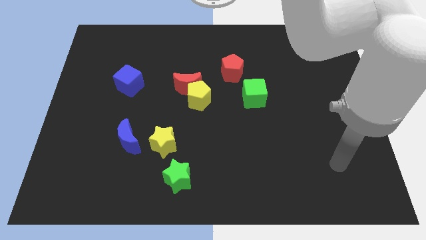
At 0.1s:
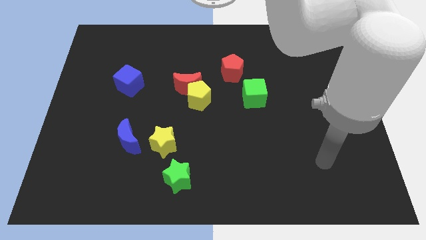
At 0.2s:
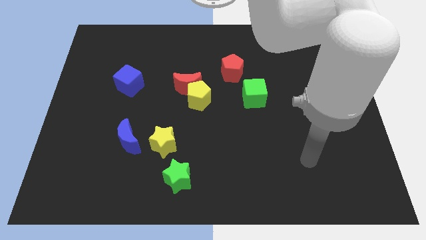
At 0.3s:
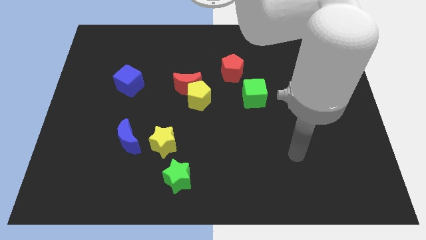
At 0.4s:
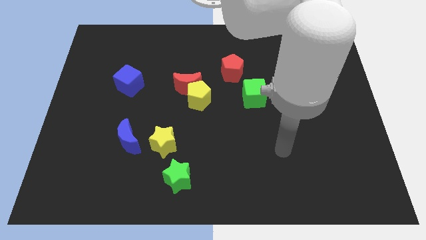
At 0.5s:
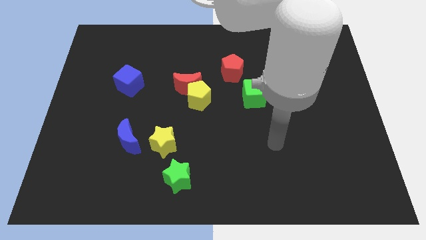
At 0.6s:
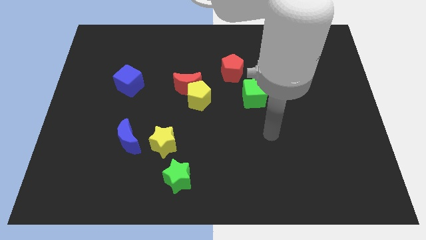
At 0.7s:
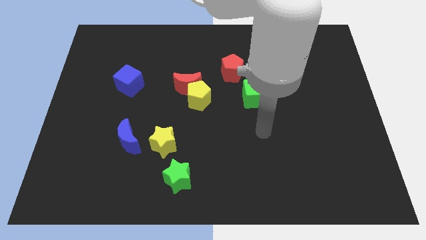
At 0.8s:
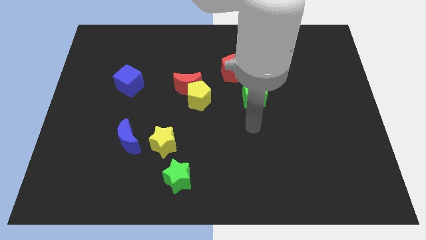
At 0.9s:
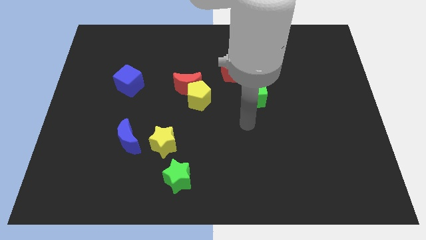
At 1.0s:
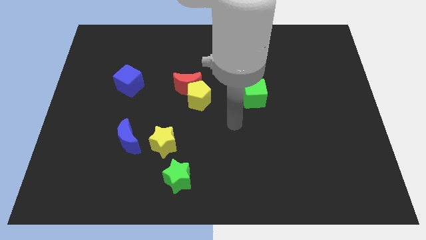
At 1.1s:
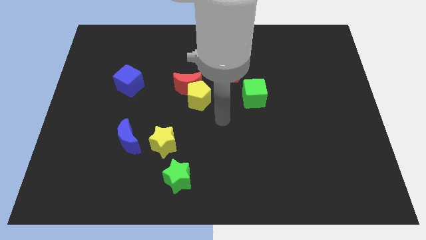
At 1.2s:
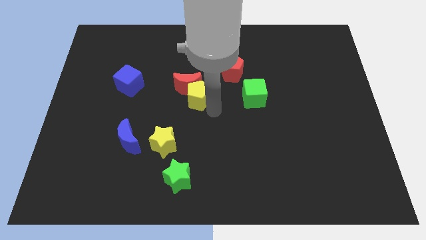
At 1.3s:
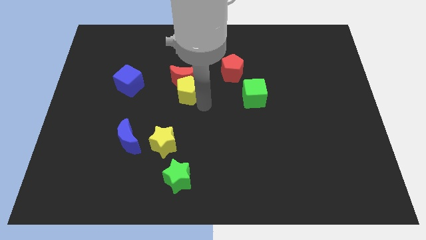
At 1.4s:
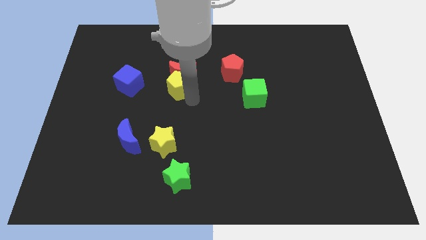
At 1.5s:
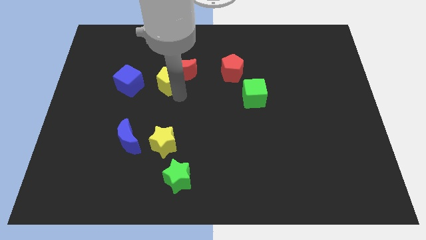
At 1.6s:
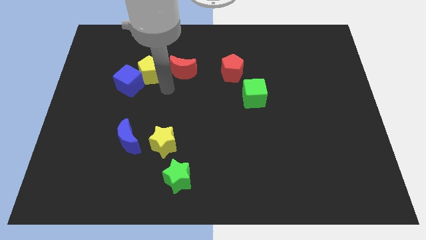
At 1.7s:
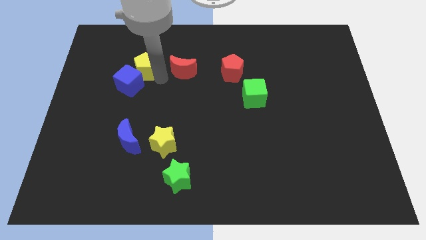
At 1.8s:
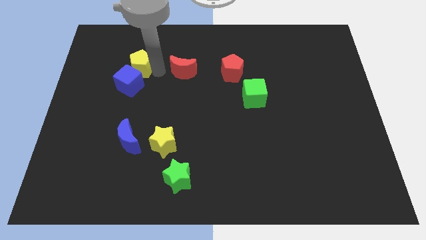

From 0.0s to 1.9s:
move the red moon away from the yellow pentagon

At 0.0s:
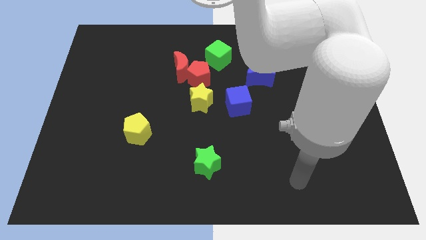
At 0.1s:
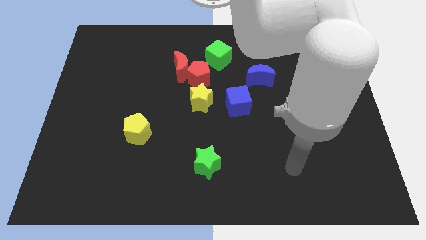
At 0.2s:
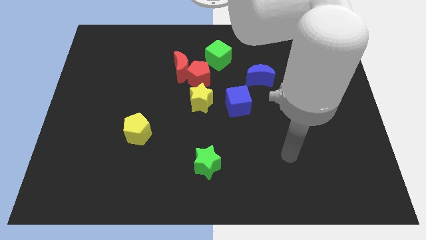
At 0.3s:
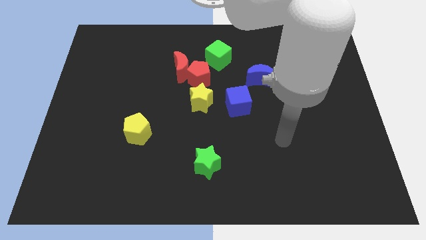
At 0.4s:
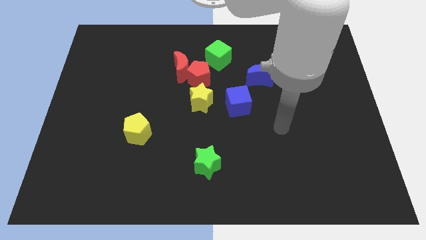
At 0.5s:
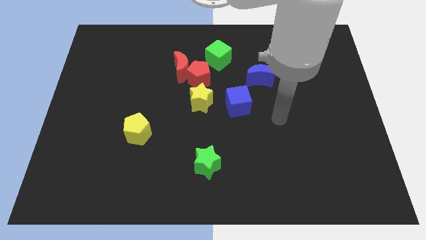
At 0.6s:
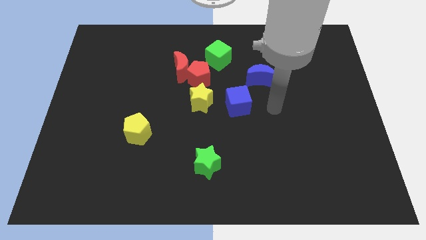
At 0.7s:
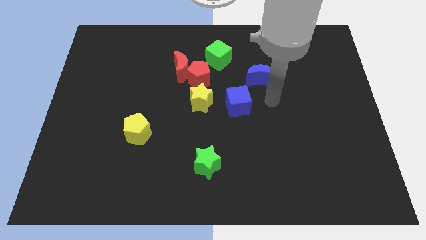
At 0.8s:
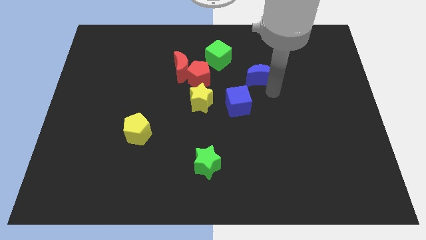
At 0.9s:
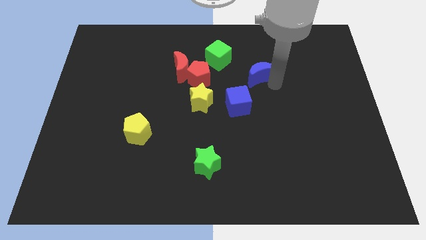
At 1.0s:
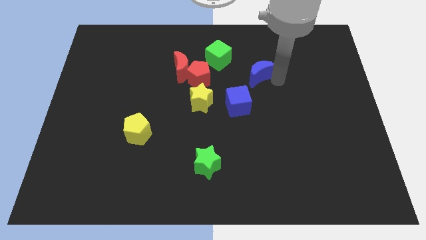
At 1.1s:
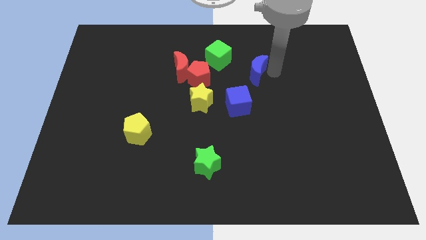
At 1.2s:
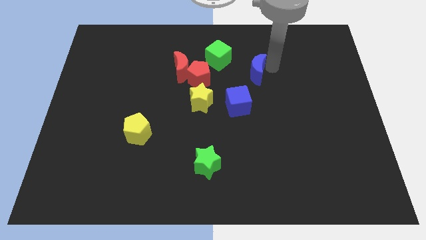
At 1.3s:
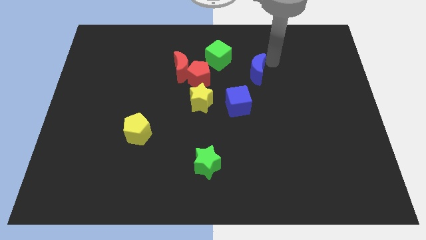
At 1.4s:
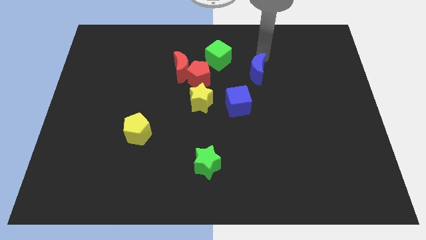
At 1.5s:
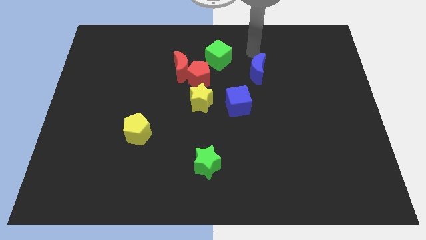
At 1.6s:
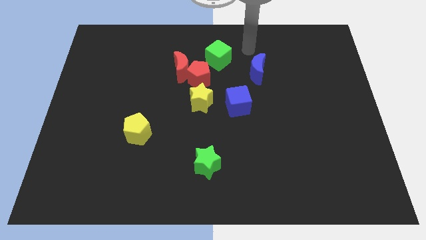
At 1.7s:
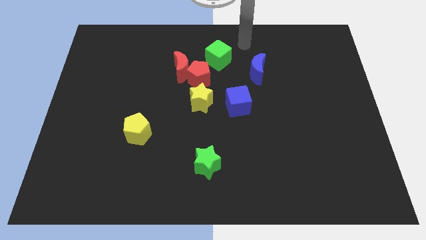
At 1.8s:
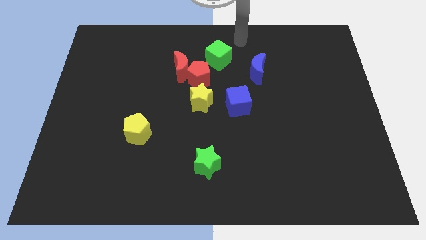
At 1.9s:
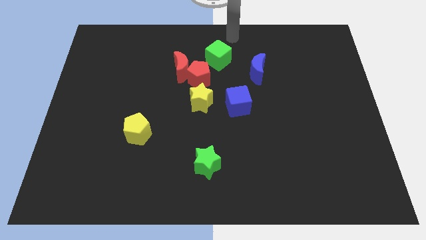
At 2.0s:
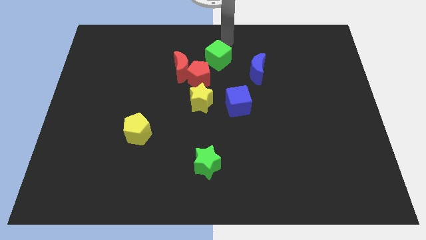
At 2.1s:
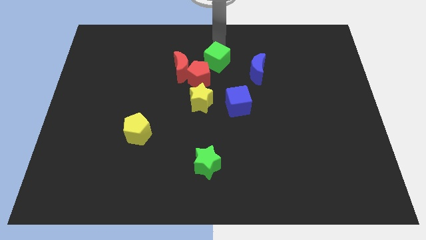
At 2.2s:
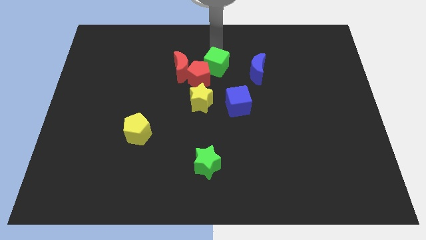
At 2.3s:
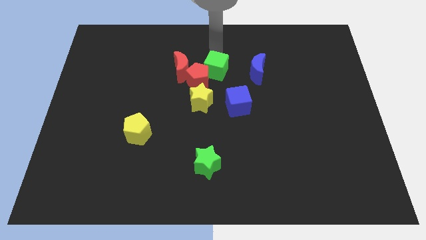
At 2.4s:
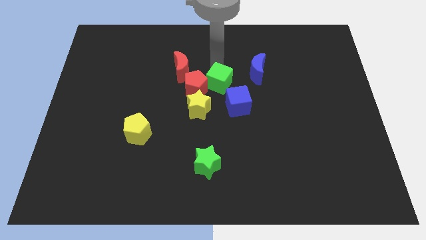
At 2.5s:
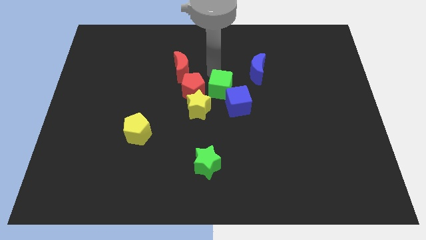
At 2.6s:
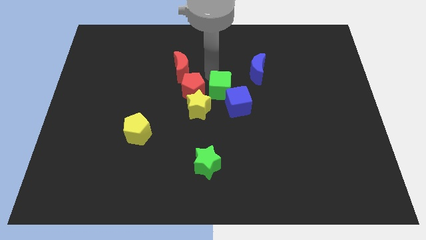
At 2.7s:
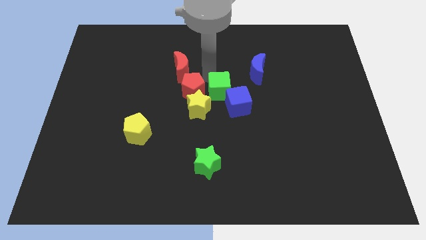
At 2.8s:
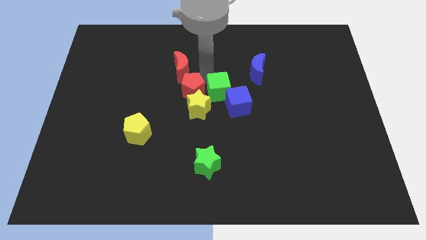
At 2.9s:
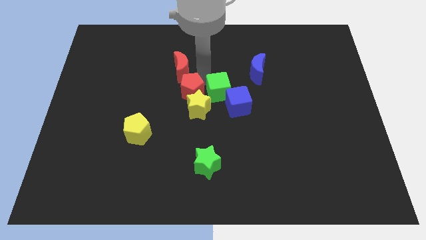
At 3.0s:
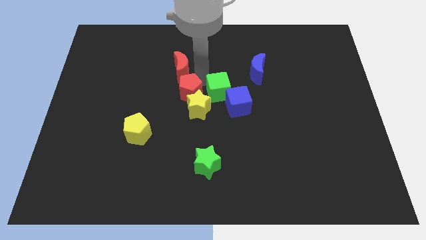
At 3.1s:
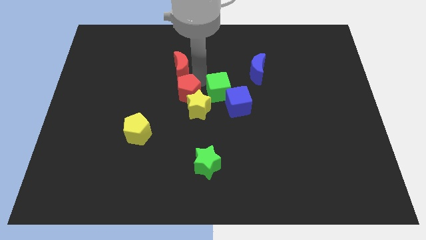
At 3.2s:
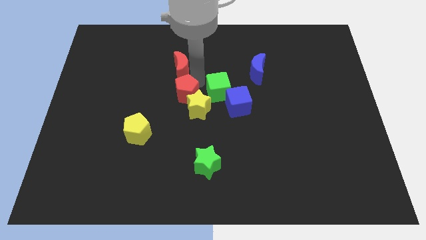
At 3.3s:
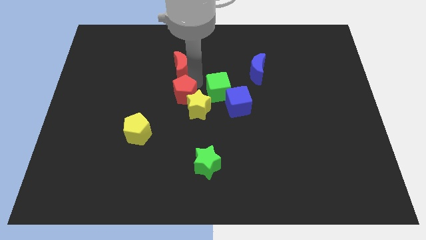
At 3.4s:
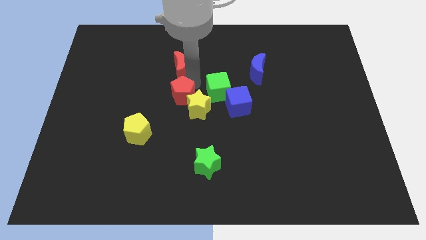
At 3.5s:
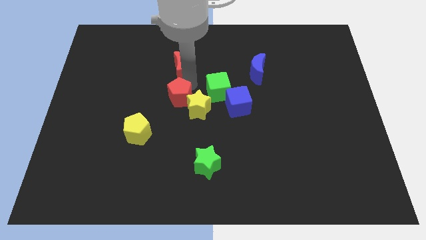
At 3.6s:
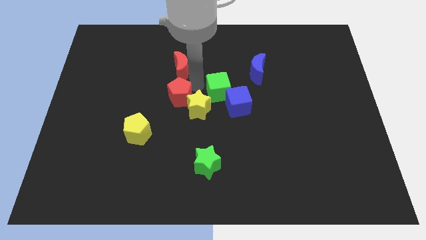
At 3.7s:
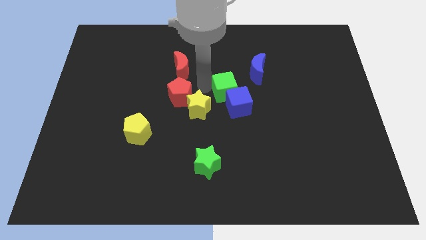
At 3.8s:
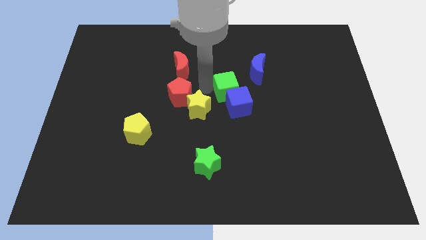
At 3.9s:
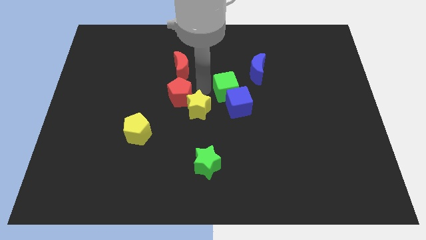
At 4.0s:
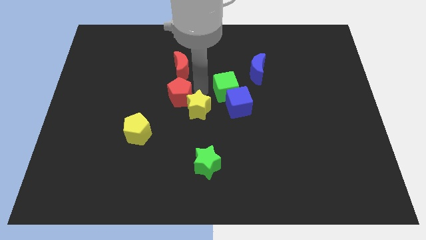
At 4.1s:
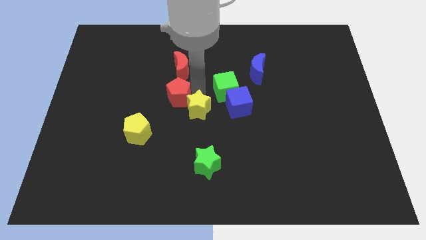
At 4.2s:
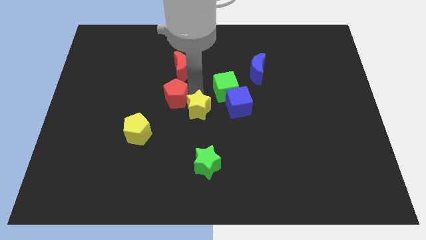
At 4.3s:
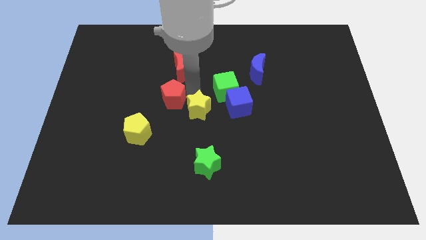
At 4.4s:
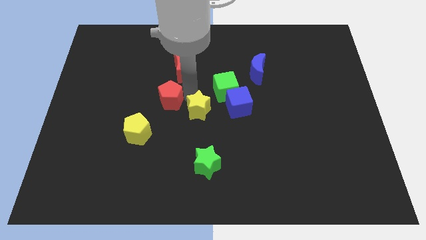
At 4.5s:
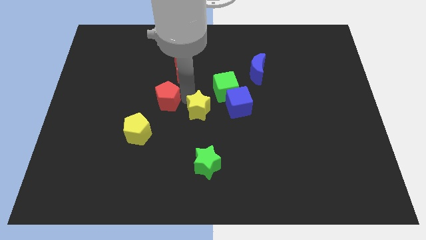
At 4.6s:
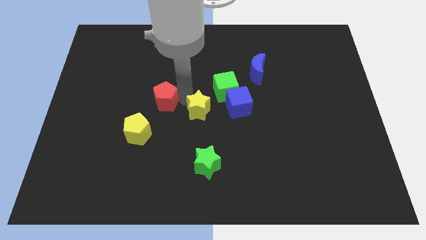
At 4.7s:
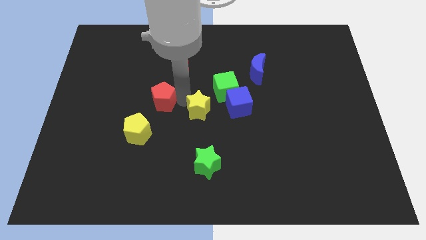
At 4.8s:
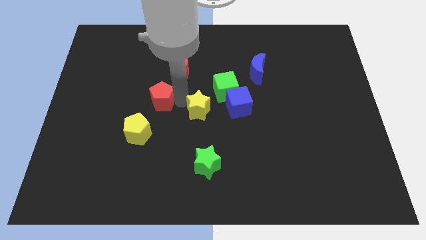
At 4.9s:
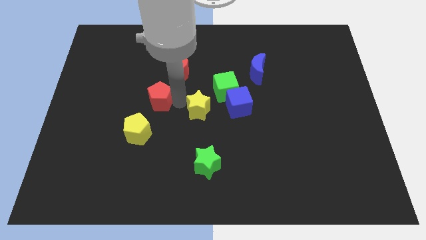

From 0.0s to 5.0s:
pull the red pentagon apart from the red moon, yellow star, and green cube

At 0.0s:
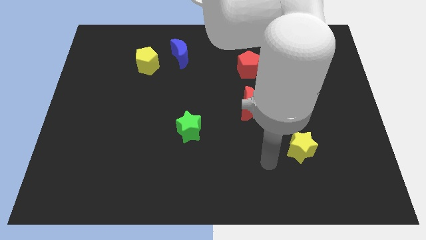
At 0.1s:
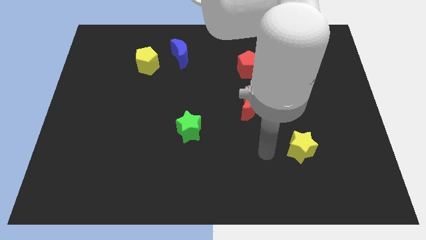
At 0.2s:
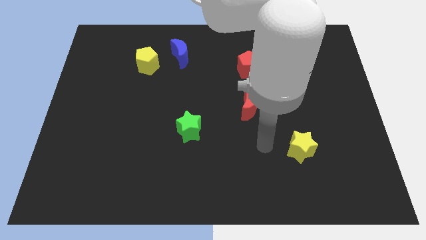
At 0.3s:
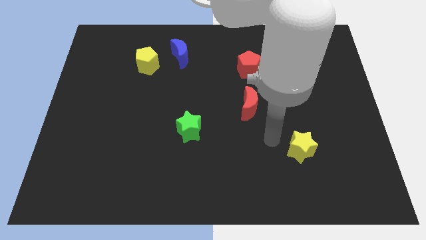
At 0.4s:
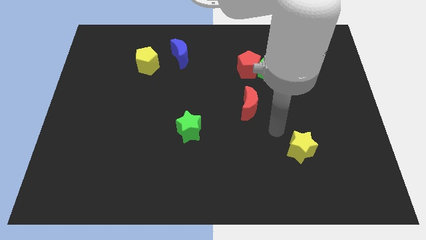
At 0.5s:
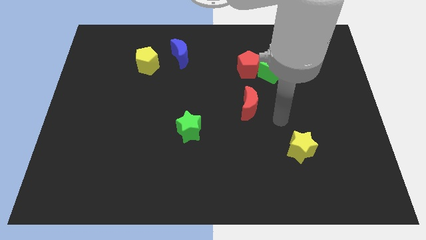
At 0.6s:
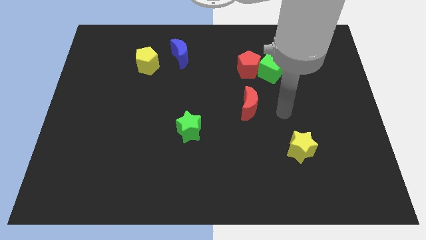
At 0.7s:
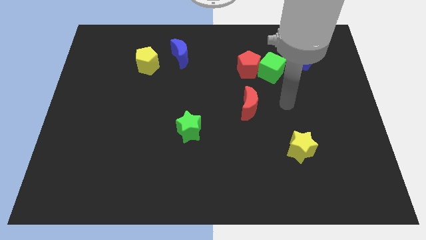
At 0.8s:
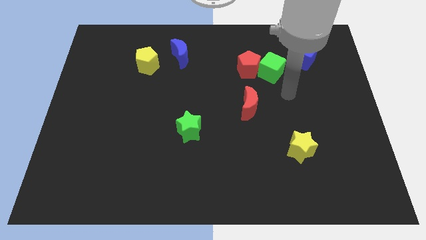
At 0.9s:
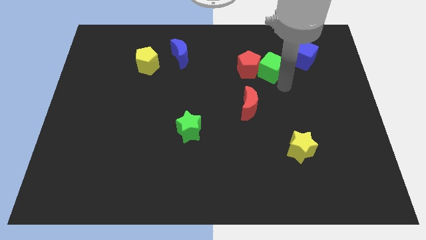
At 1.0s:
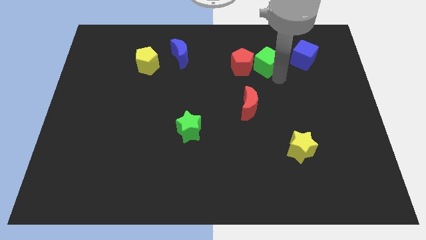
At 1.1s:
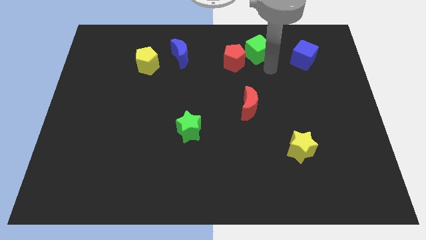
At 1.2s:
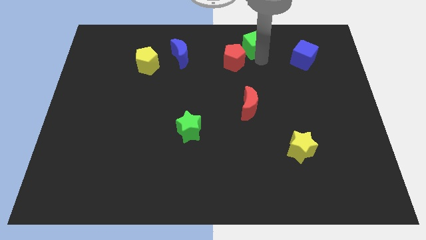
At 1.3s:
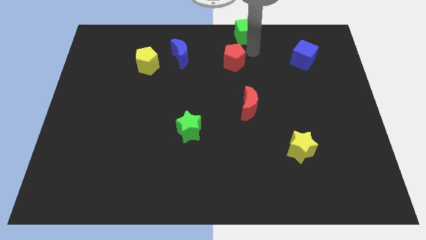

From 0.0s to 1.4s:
pull the red pentagon apart from the green cube

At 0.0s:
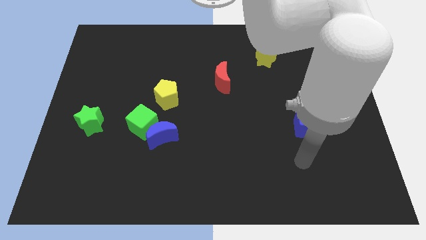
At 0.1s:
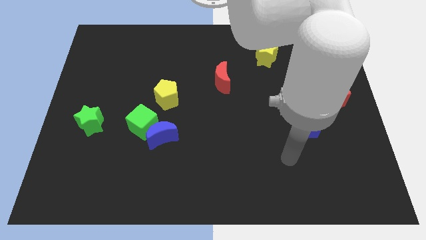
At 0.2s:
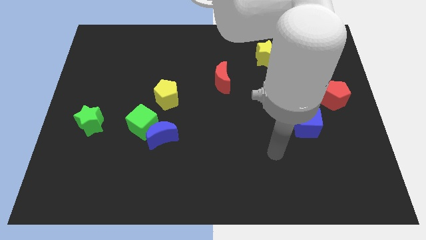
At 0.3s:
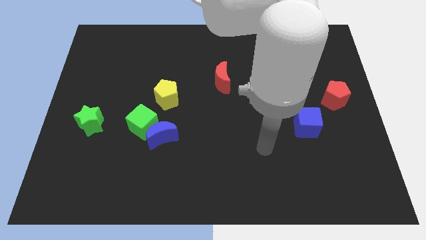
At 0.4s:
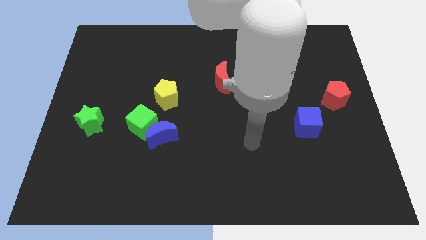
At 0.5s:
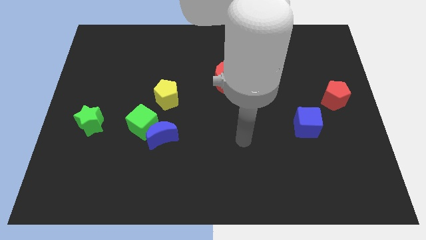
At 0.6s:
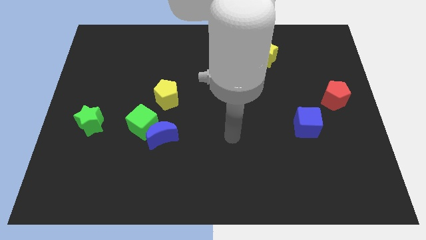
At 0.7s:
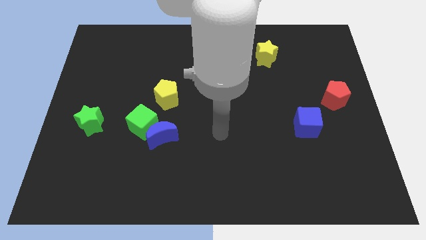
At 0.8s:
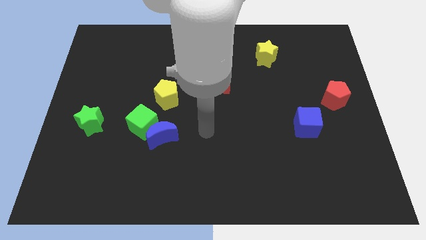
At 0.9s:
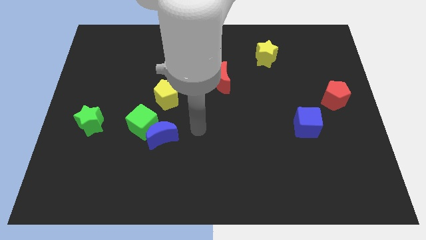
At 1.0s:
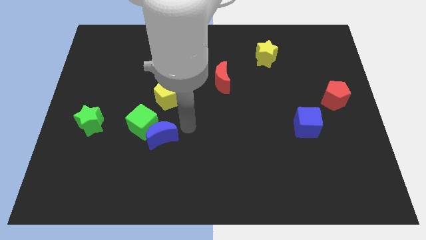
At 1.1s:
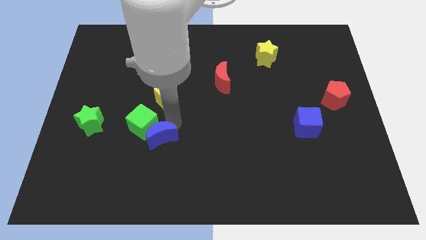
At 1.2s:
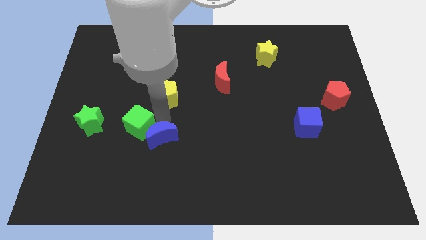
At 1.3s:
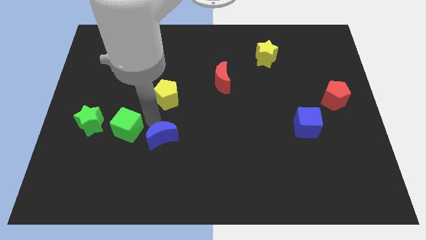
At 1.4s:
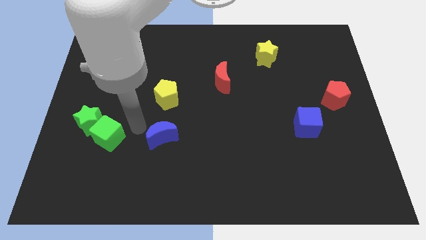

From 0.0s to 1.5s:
move the blue moon away from the green cube
